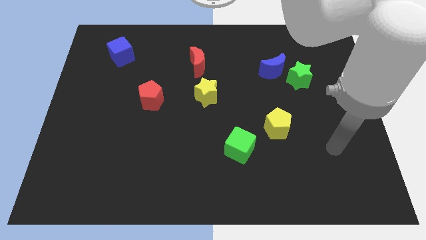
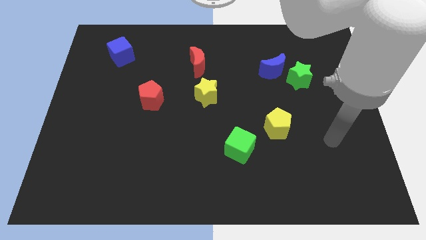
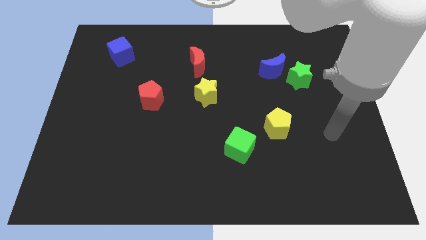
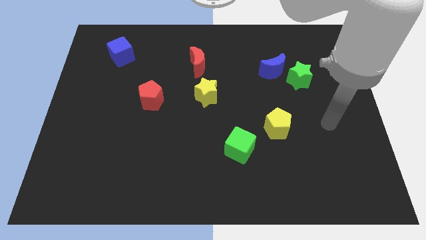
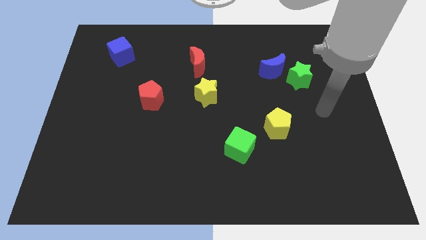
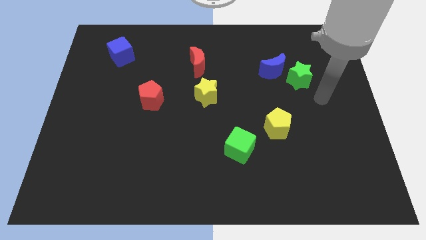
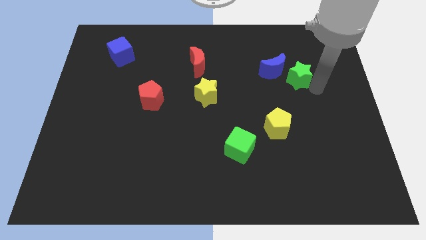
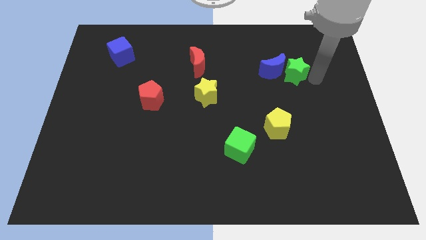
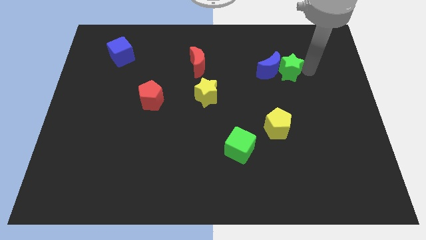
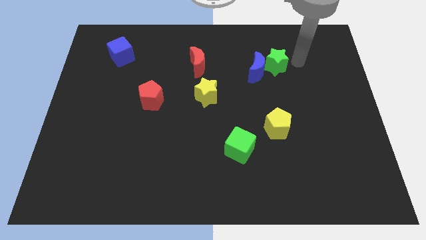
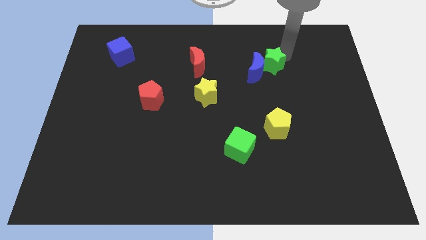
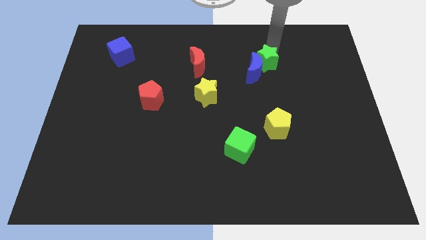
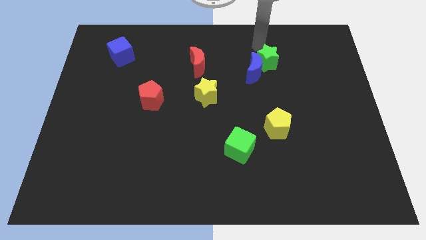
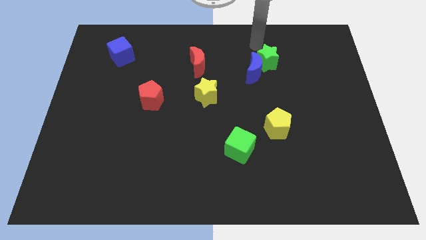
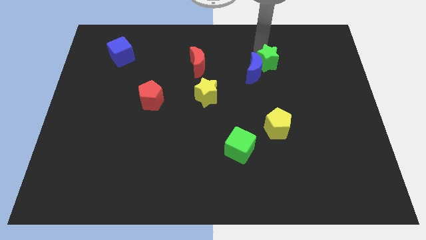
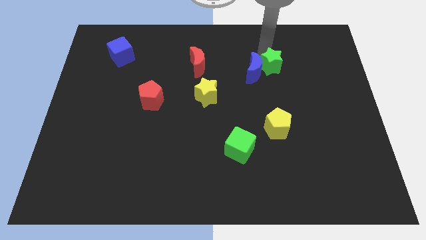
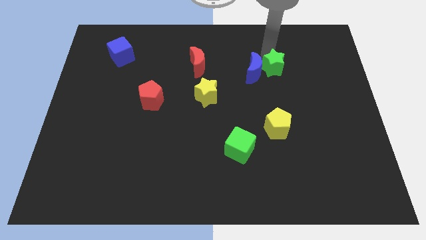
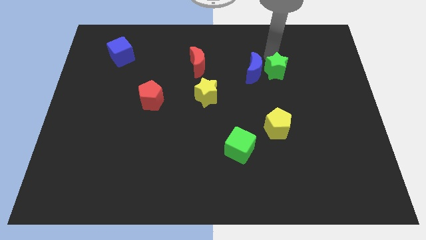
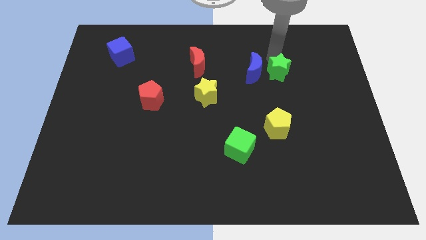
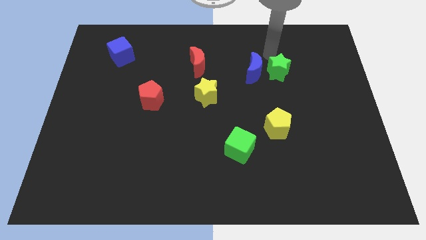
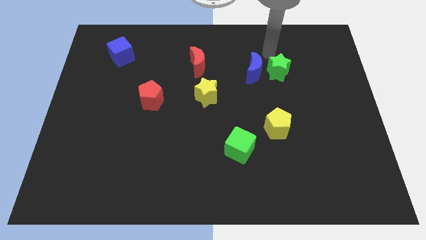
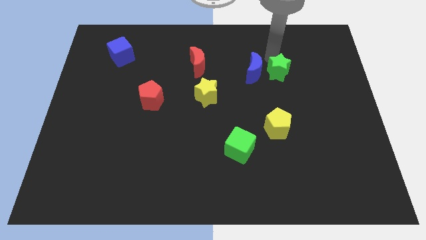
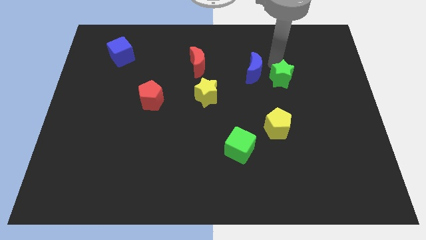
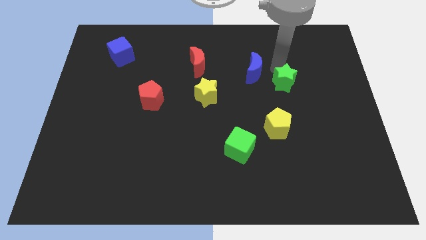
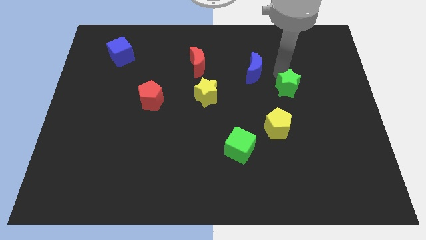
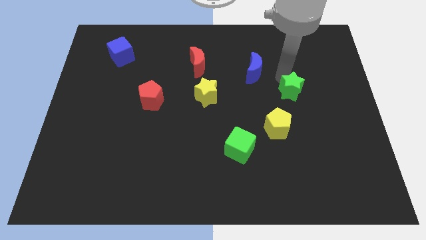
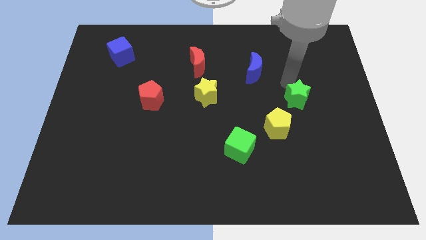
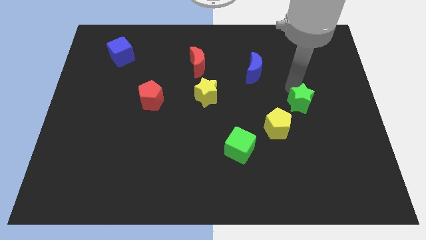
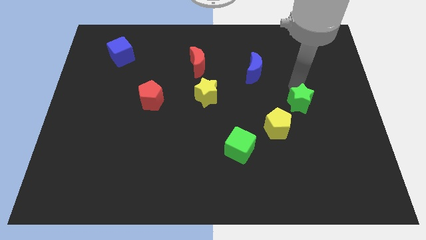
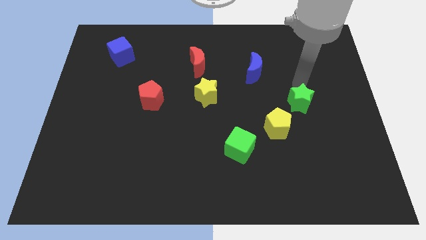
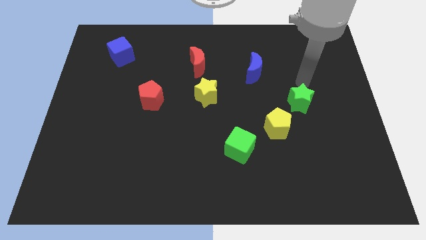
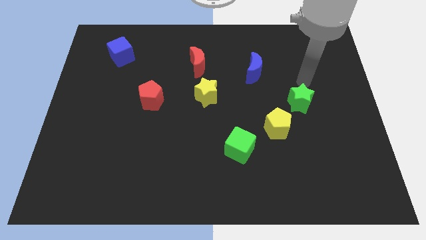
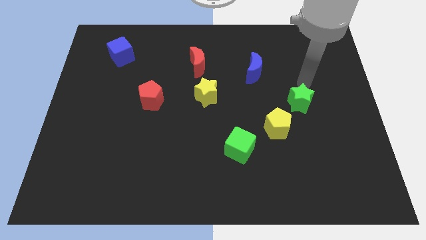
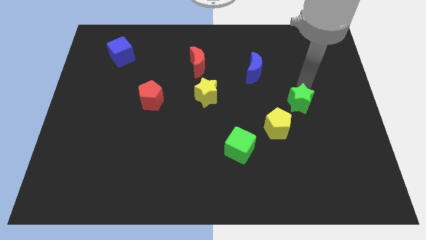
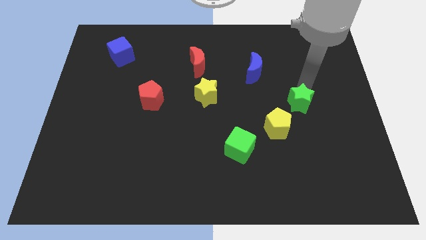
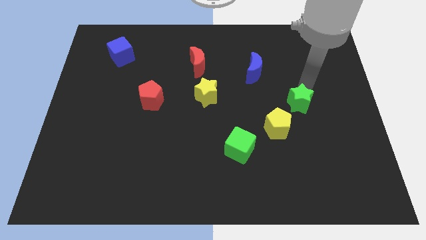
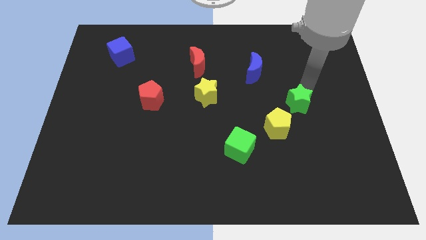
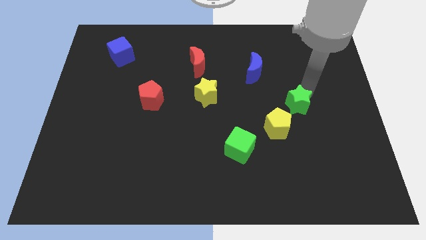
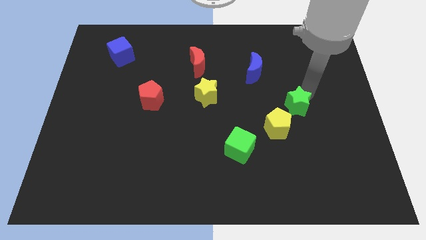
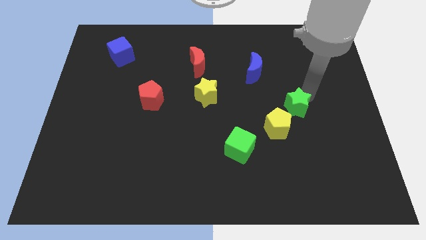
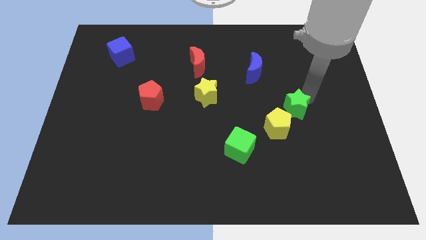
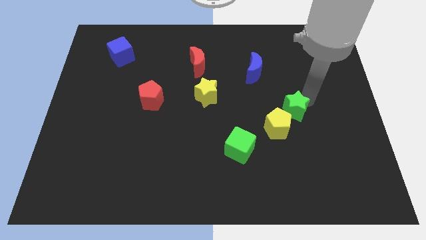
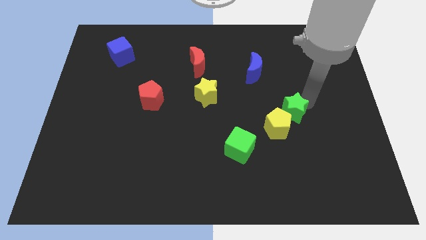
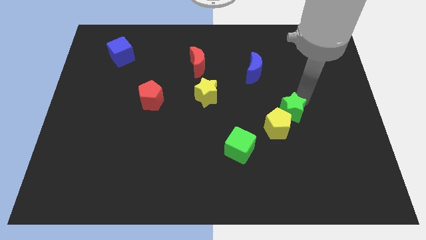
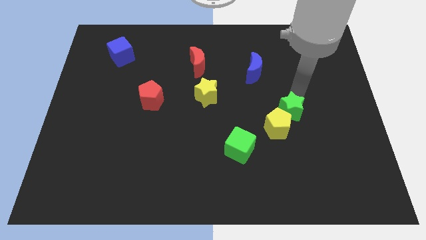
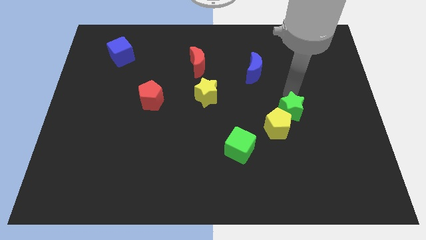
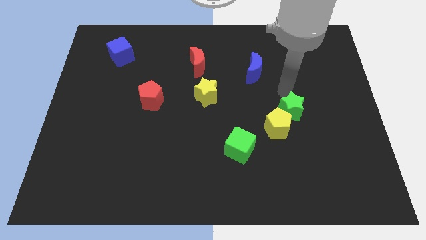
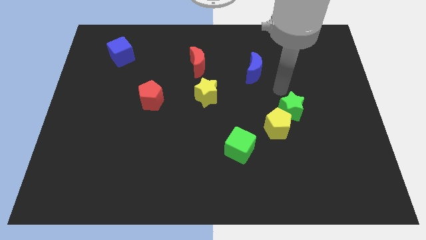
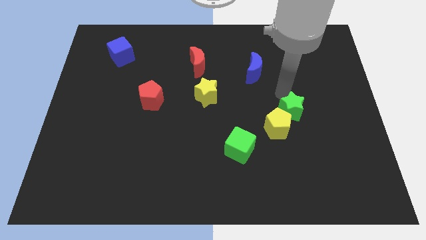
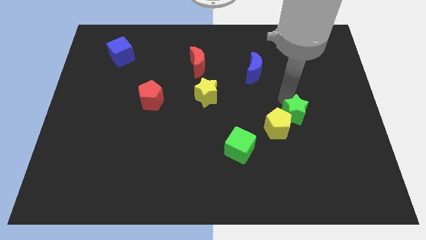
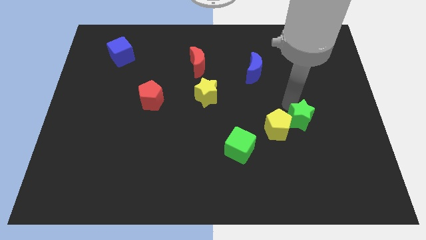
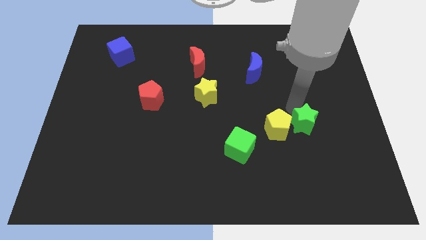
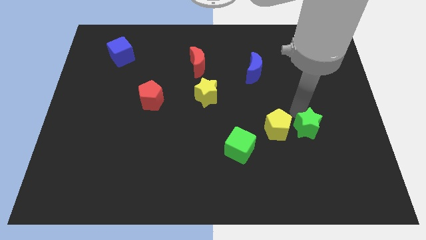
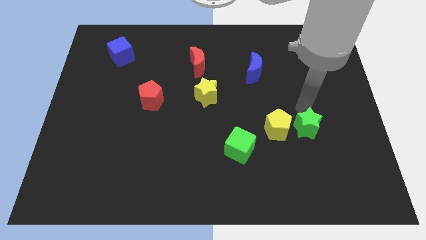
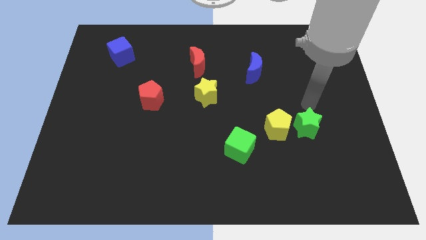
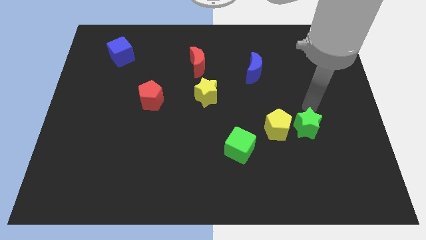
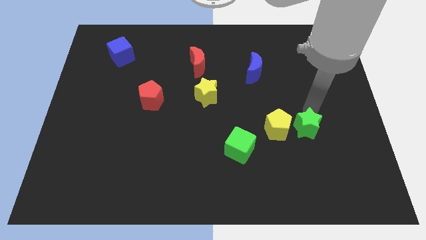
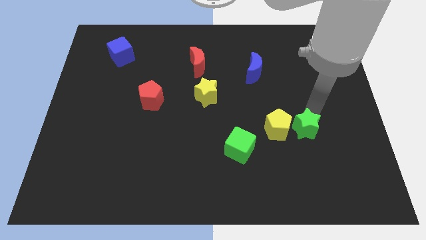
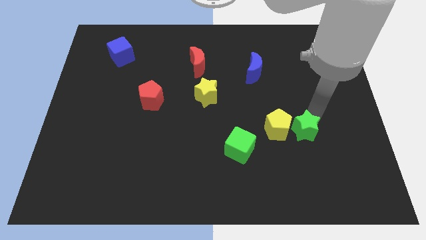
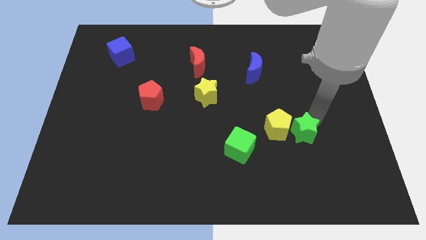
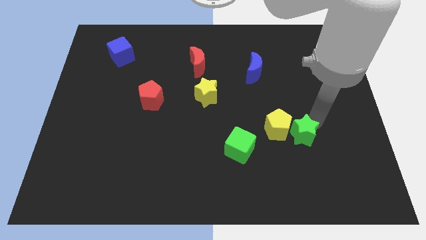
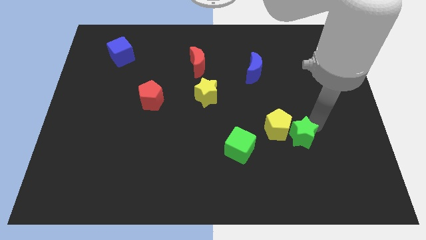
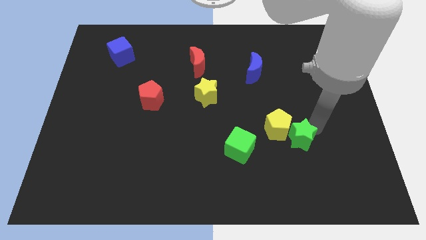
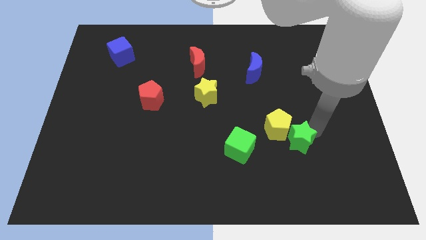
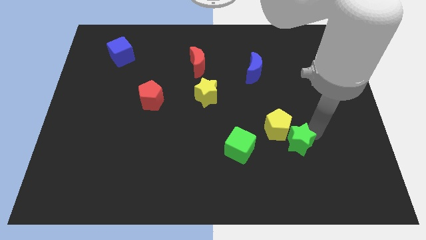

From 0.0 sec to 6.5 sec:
put the green star below the yellow pentagon

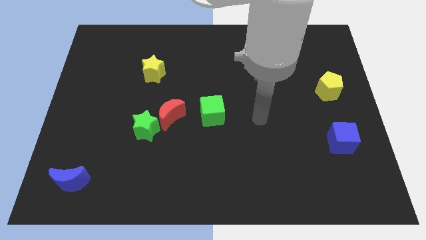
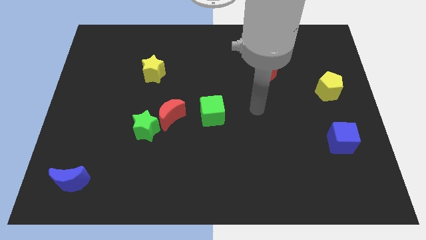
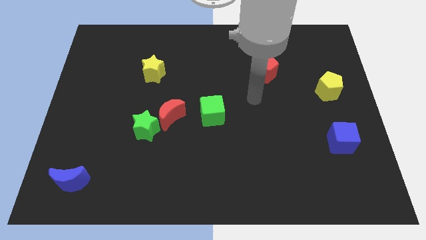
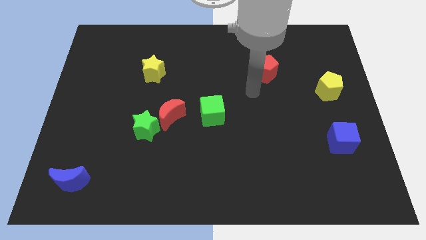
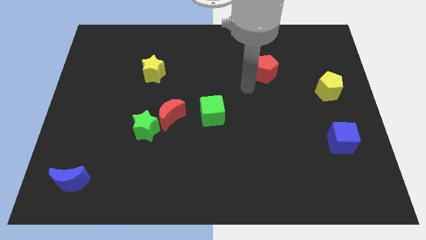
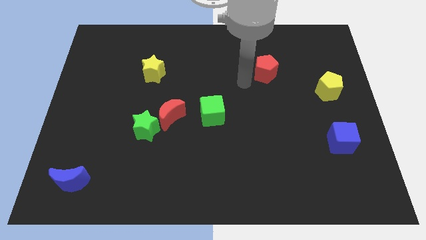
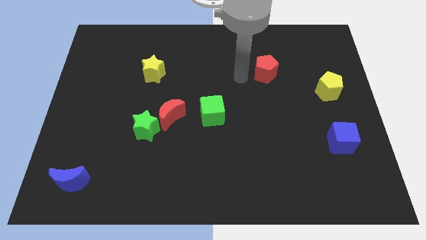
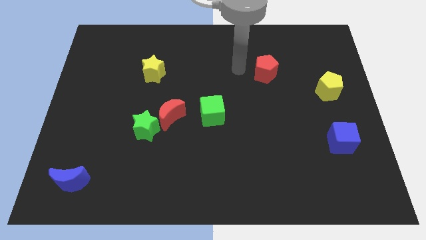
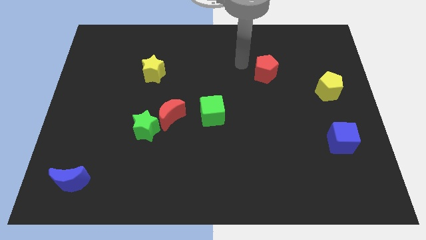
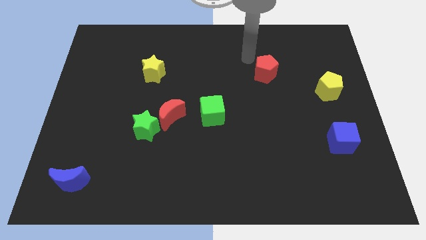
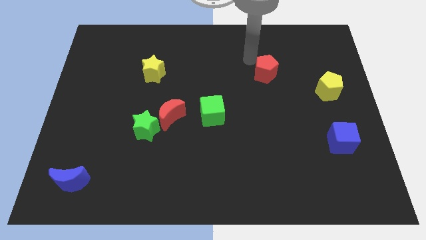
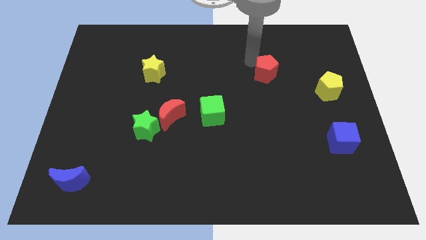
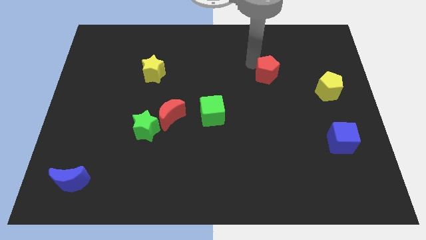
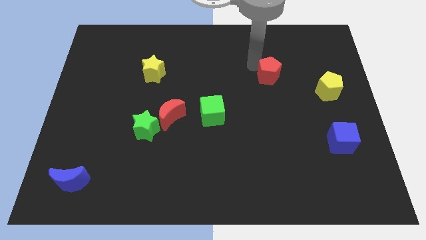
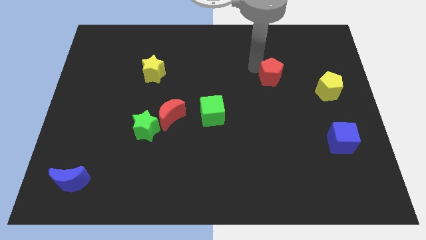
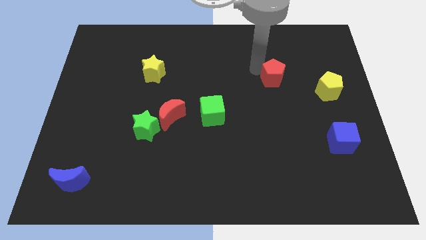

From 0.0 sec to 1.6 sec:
slide the red pentagon to the left side of the yellow pentagon
